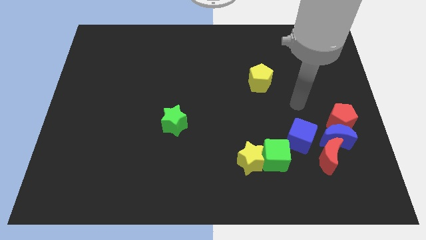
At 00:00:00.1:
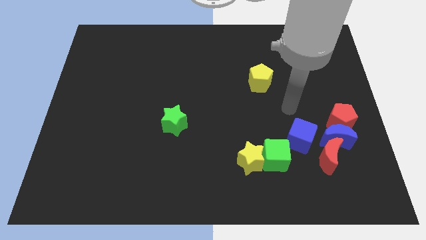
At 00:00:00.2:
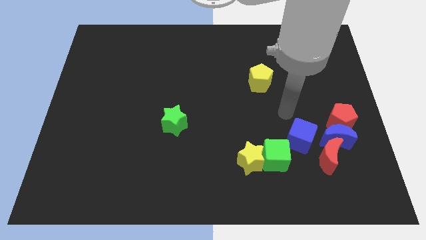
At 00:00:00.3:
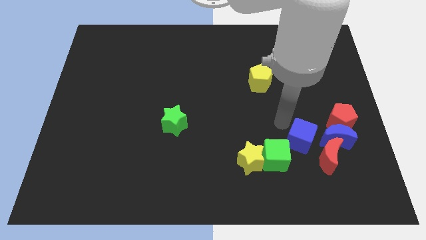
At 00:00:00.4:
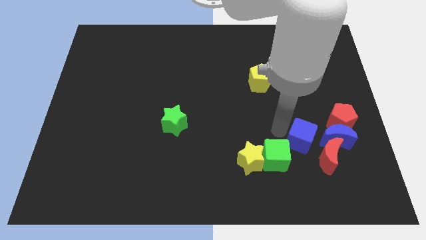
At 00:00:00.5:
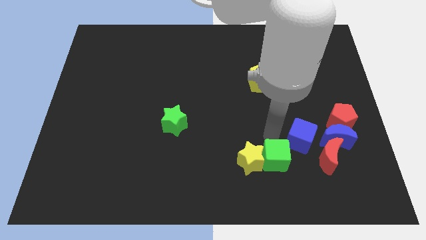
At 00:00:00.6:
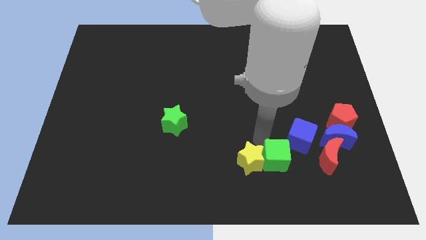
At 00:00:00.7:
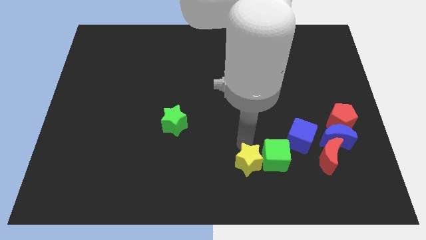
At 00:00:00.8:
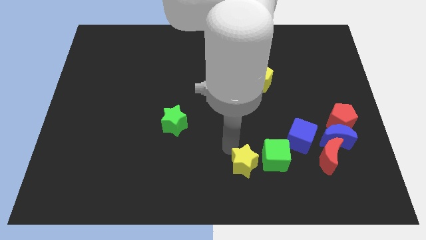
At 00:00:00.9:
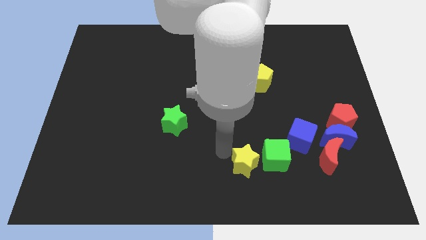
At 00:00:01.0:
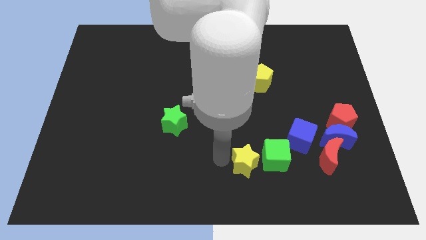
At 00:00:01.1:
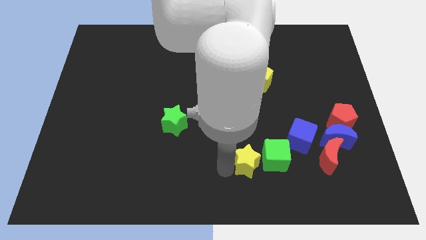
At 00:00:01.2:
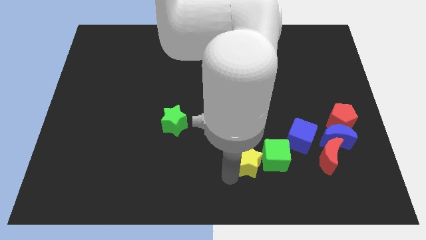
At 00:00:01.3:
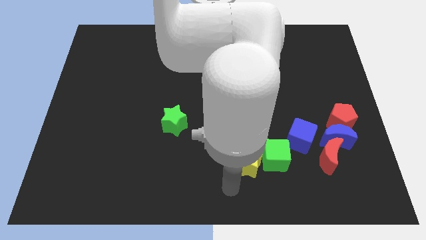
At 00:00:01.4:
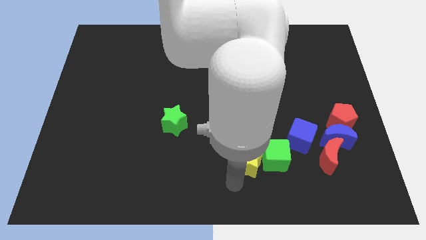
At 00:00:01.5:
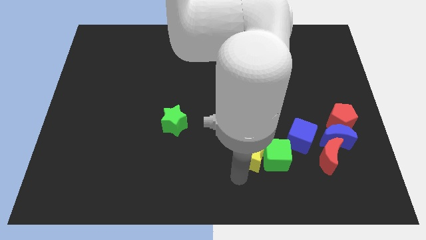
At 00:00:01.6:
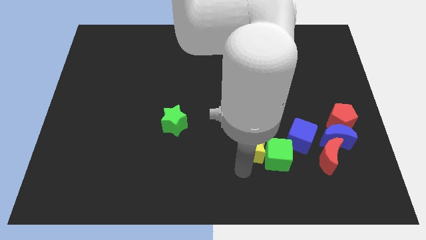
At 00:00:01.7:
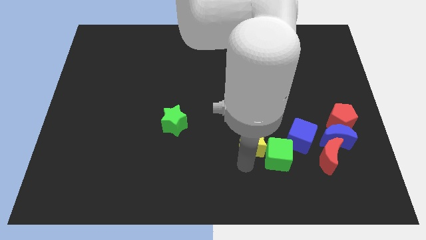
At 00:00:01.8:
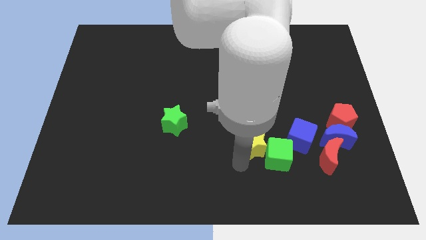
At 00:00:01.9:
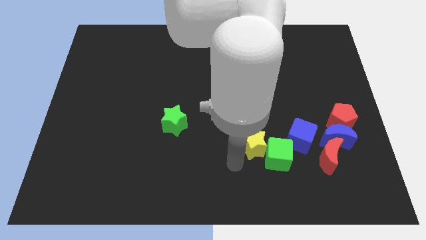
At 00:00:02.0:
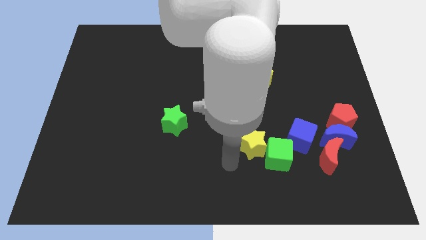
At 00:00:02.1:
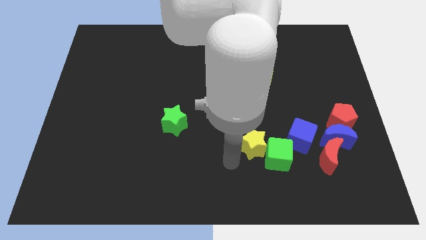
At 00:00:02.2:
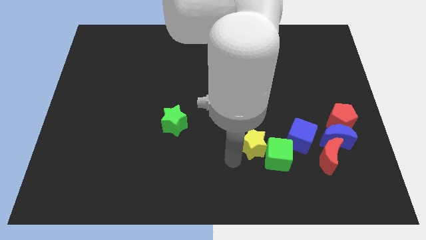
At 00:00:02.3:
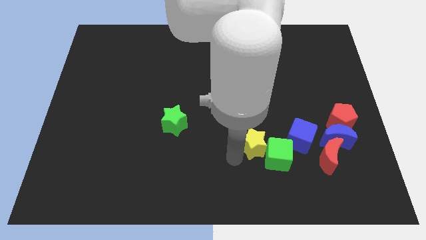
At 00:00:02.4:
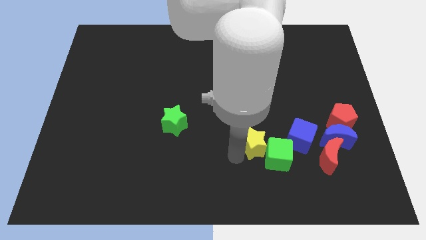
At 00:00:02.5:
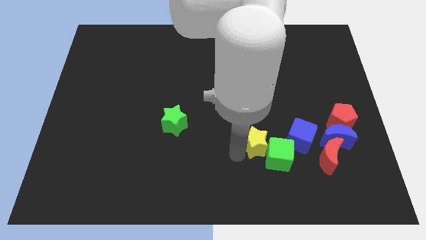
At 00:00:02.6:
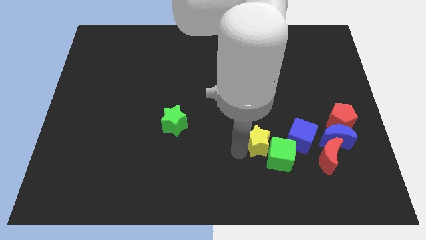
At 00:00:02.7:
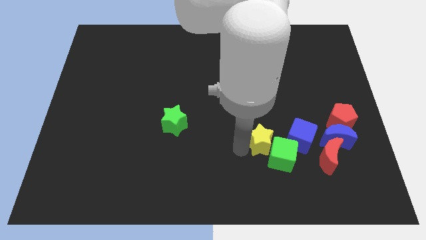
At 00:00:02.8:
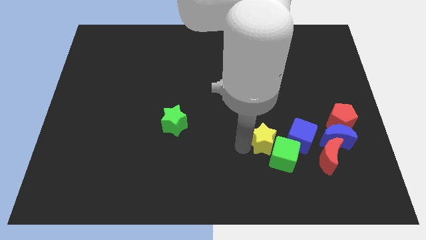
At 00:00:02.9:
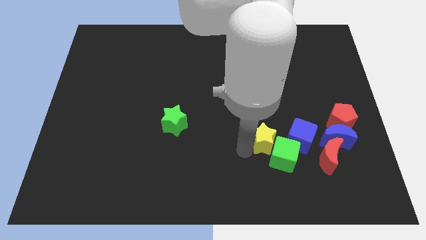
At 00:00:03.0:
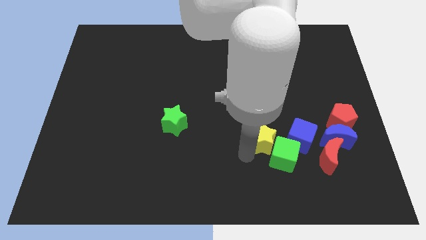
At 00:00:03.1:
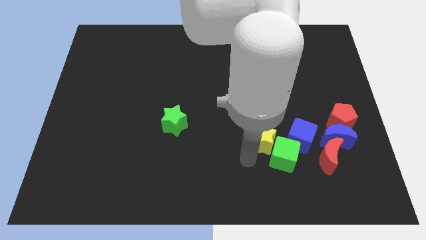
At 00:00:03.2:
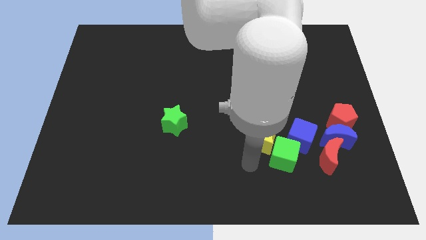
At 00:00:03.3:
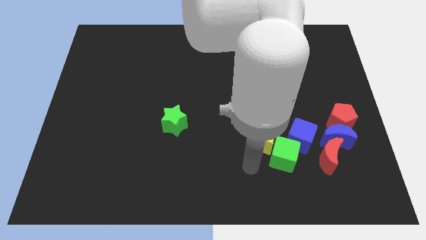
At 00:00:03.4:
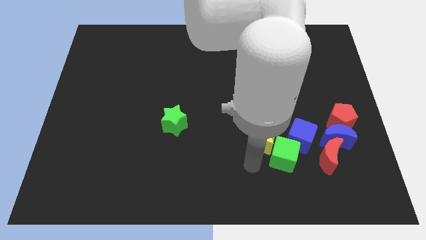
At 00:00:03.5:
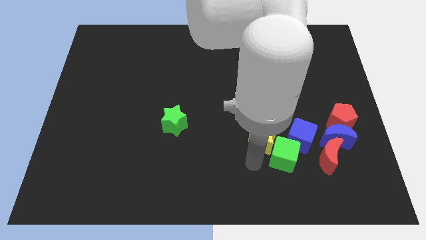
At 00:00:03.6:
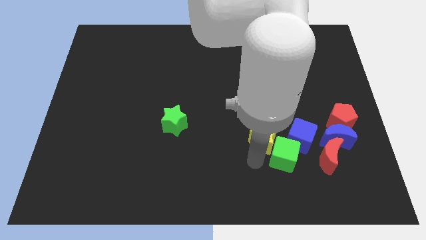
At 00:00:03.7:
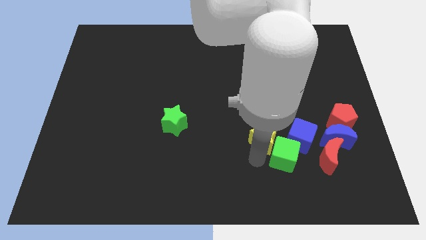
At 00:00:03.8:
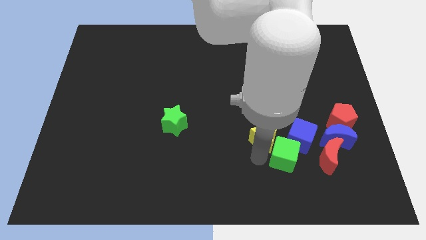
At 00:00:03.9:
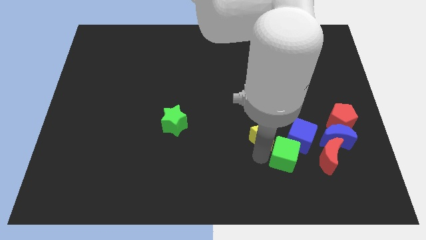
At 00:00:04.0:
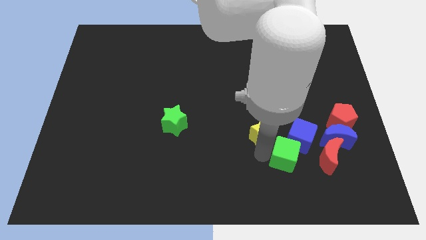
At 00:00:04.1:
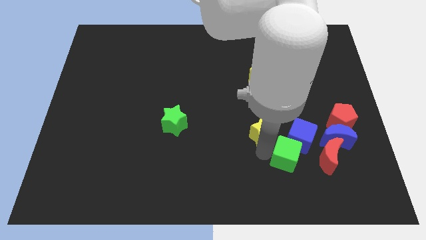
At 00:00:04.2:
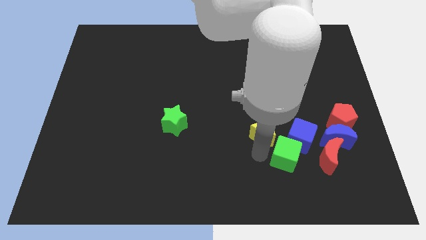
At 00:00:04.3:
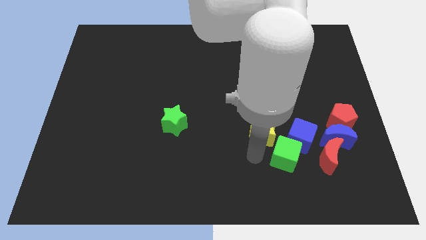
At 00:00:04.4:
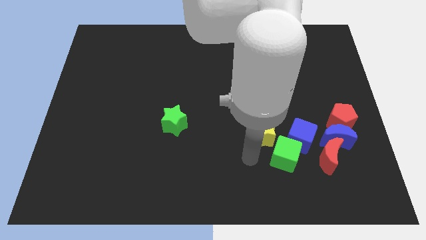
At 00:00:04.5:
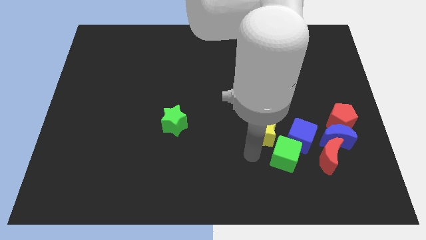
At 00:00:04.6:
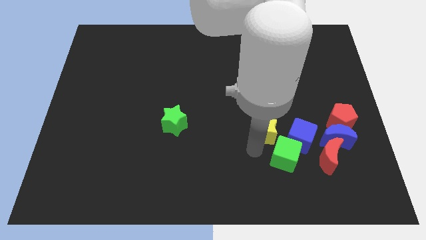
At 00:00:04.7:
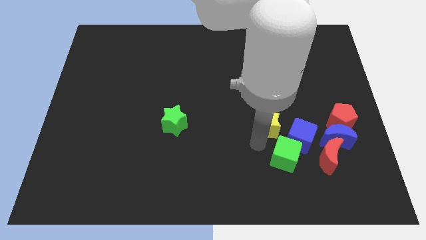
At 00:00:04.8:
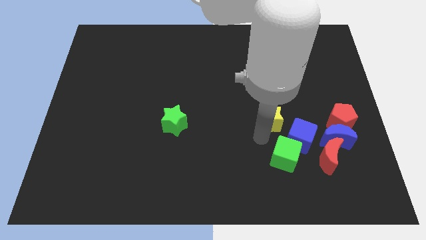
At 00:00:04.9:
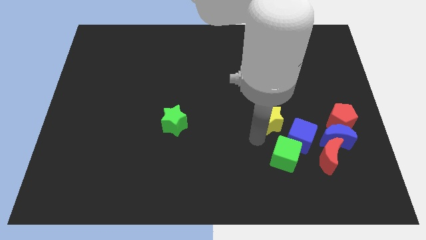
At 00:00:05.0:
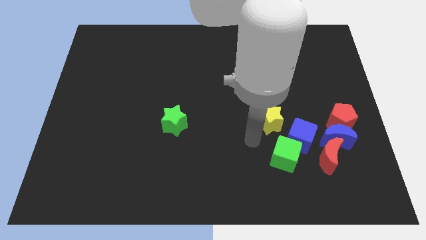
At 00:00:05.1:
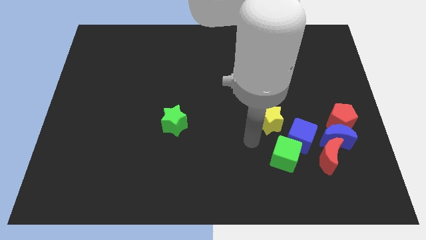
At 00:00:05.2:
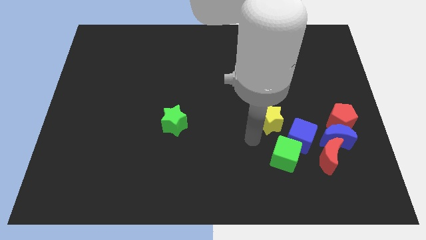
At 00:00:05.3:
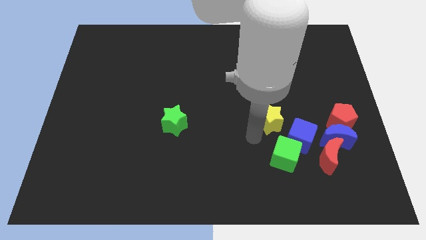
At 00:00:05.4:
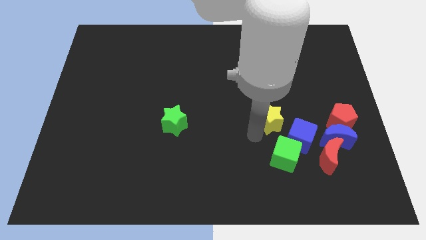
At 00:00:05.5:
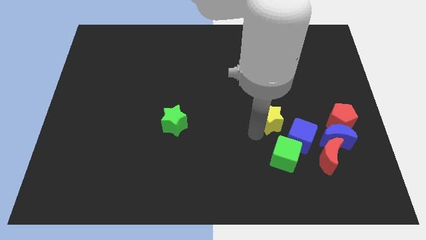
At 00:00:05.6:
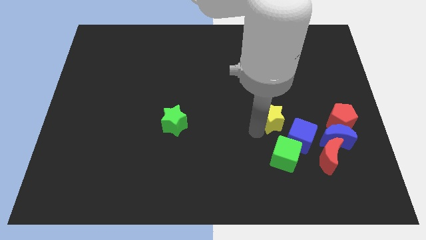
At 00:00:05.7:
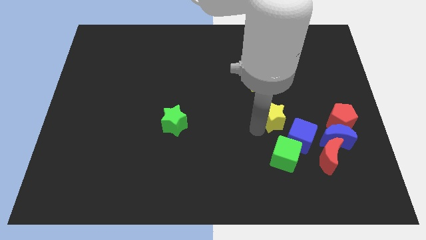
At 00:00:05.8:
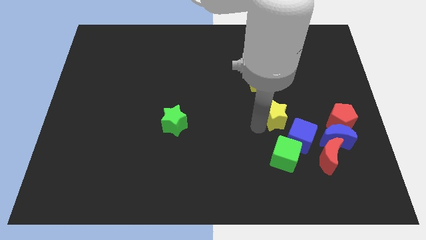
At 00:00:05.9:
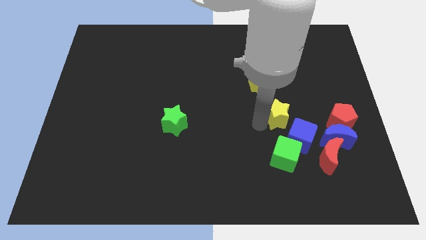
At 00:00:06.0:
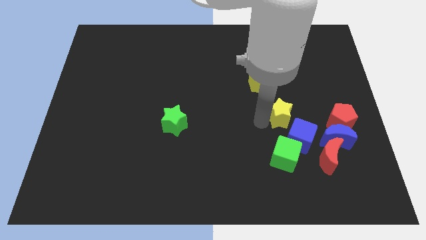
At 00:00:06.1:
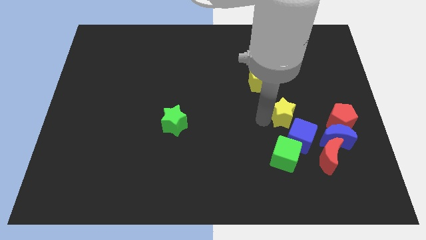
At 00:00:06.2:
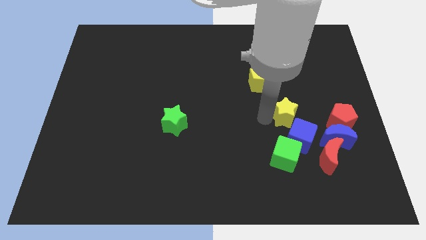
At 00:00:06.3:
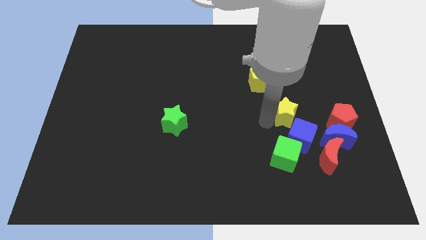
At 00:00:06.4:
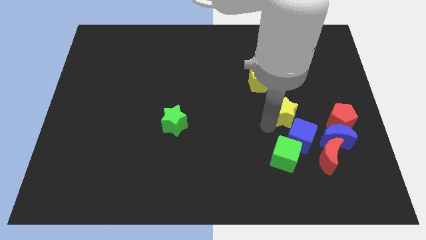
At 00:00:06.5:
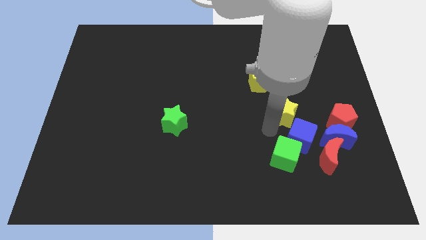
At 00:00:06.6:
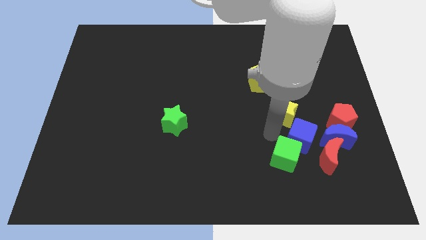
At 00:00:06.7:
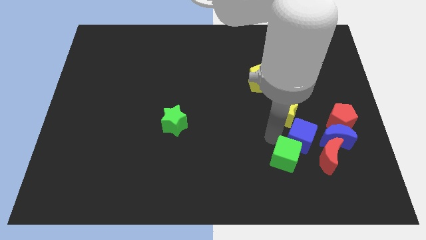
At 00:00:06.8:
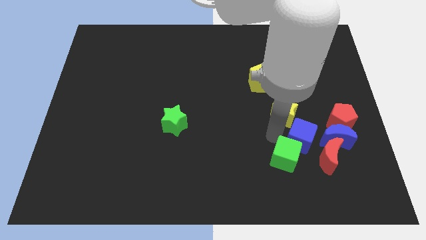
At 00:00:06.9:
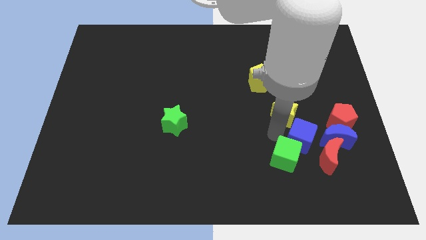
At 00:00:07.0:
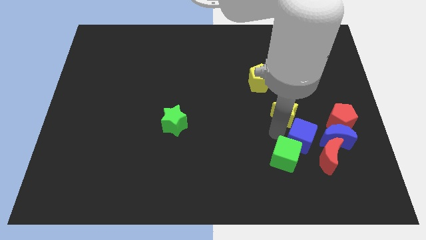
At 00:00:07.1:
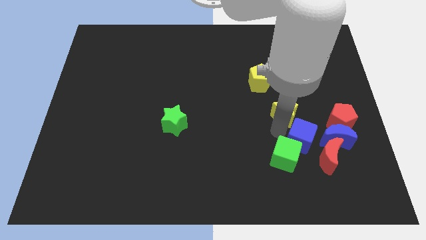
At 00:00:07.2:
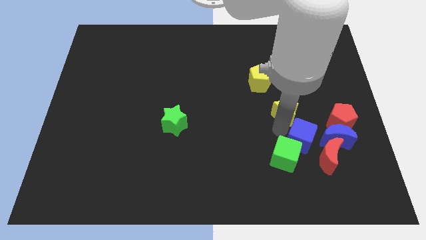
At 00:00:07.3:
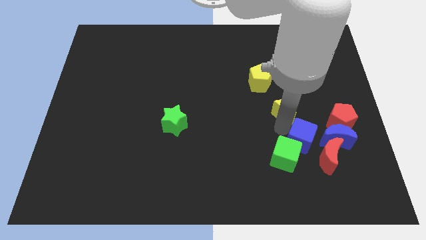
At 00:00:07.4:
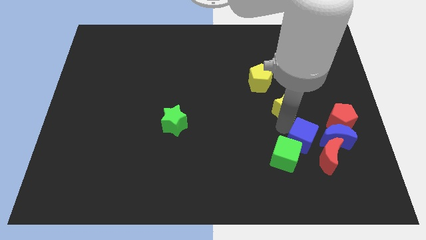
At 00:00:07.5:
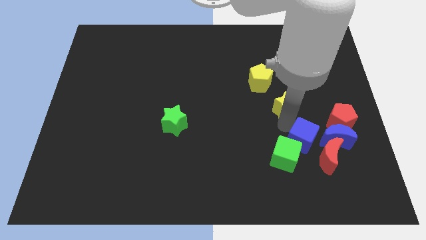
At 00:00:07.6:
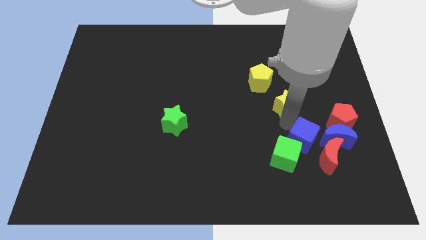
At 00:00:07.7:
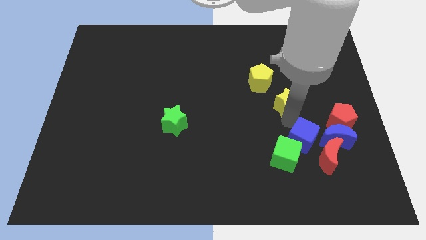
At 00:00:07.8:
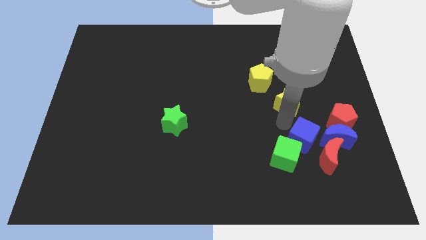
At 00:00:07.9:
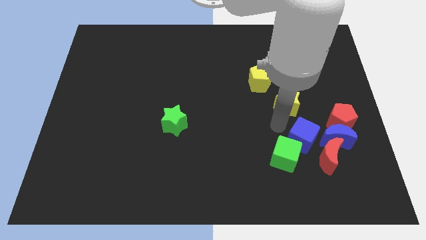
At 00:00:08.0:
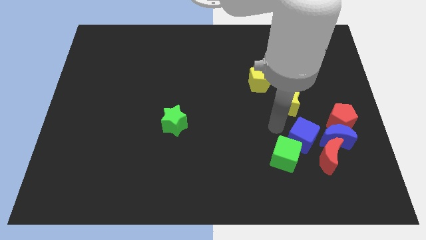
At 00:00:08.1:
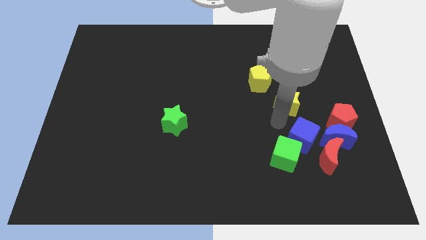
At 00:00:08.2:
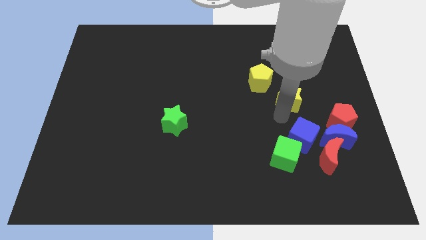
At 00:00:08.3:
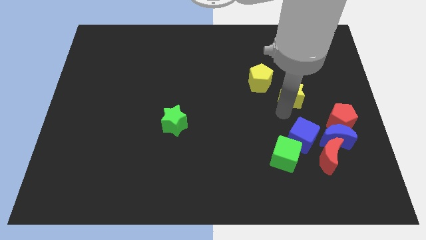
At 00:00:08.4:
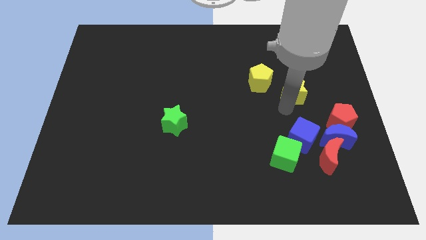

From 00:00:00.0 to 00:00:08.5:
push the yellow star right of the yellow pentagon
